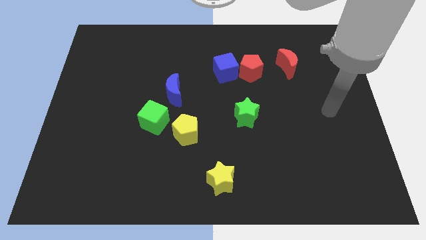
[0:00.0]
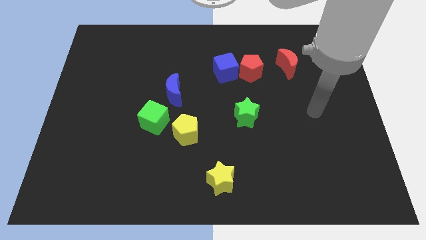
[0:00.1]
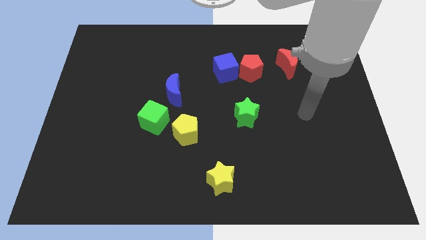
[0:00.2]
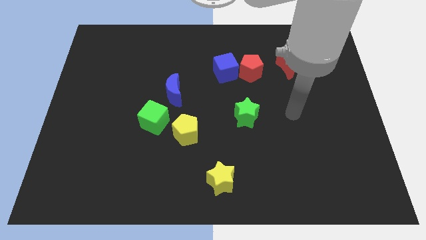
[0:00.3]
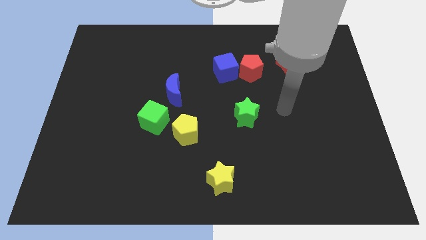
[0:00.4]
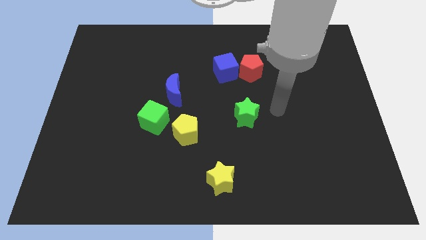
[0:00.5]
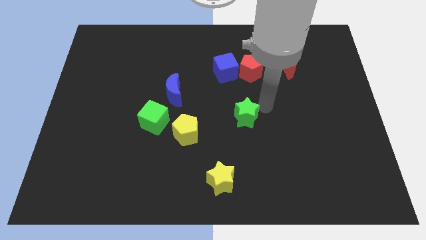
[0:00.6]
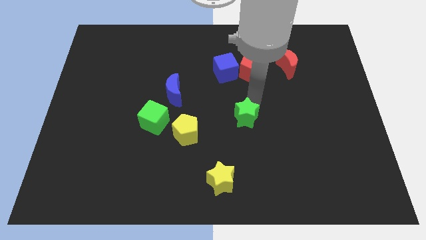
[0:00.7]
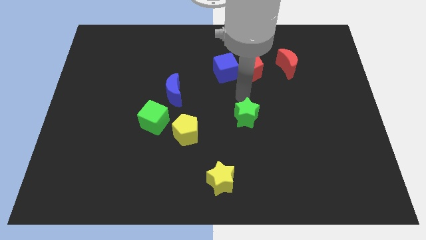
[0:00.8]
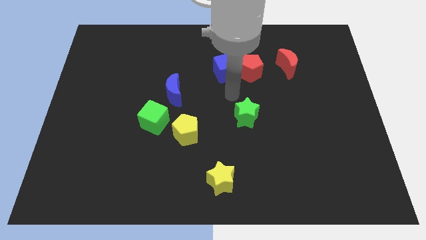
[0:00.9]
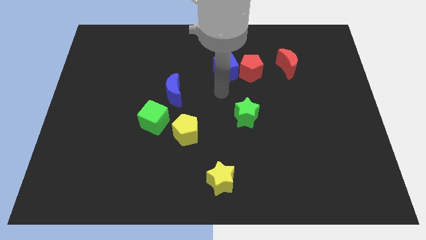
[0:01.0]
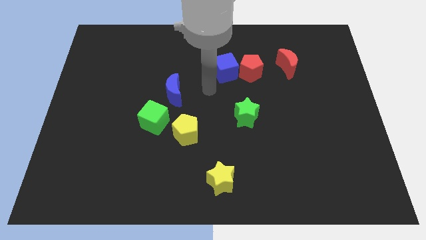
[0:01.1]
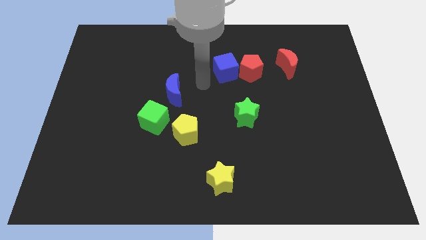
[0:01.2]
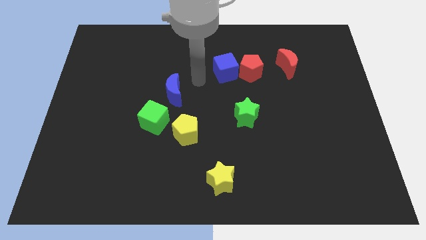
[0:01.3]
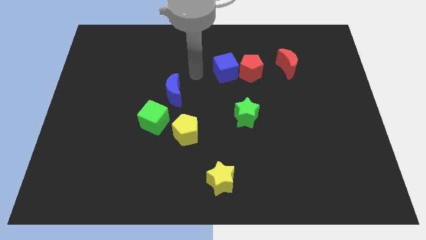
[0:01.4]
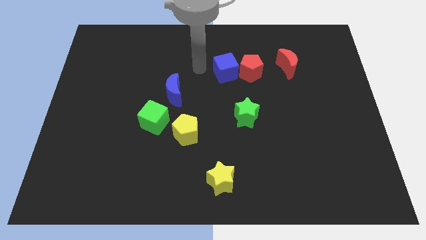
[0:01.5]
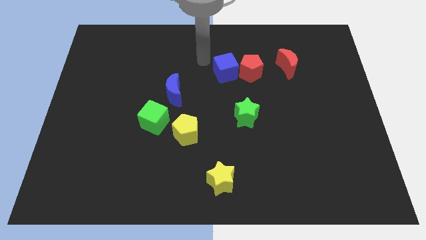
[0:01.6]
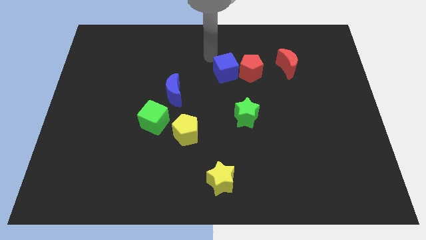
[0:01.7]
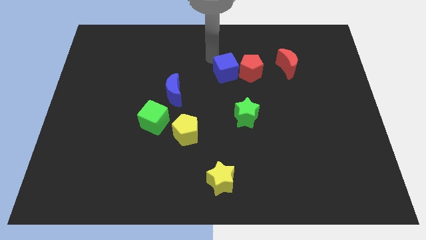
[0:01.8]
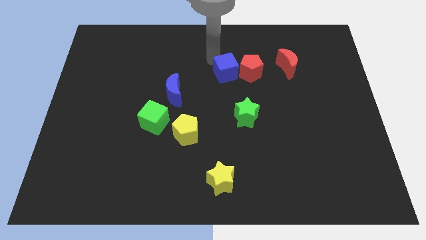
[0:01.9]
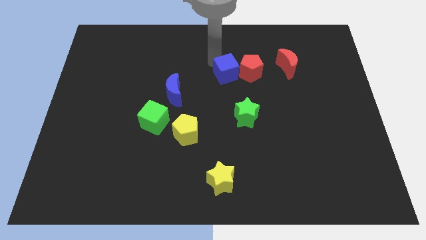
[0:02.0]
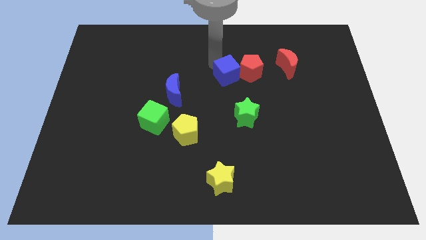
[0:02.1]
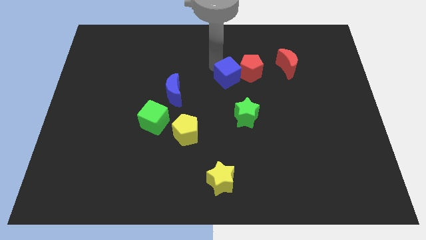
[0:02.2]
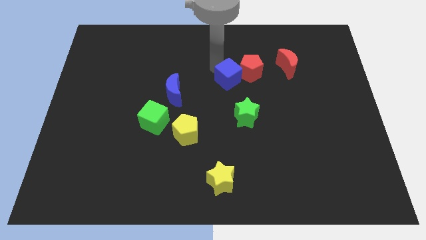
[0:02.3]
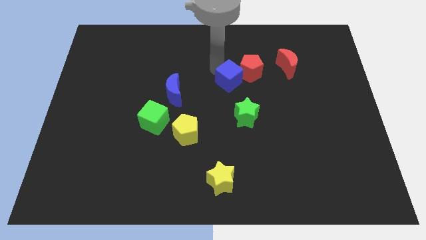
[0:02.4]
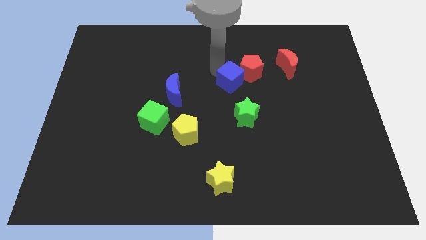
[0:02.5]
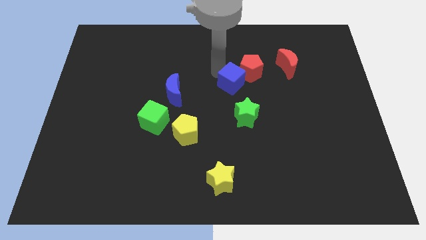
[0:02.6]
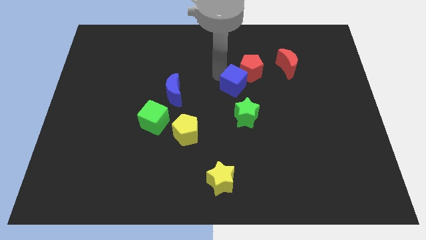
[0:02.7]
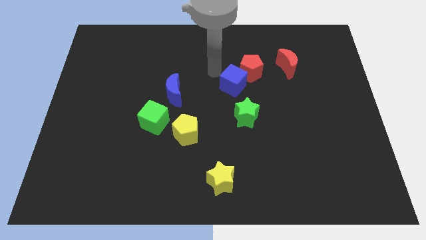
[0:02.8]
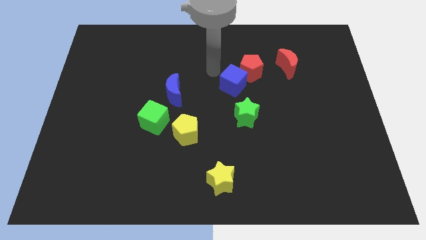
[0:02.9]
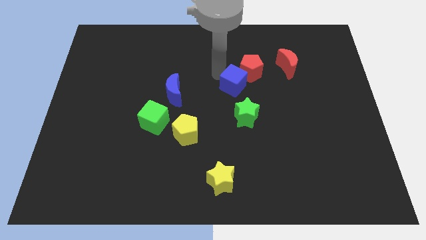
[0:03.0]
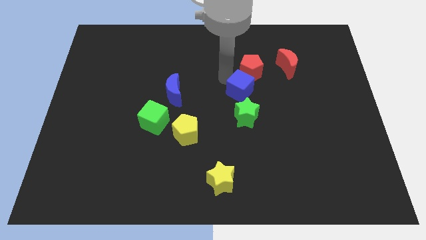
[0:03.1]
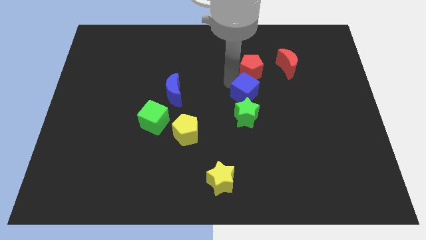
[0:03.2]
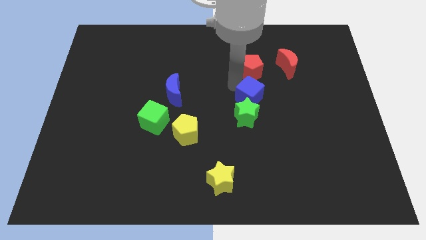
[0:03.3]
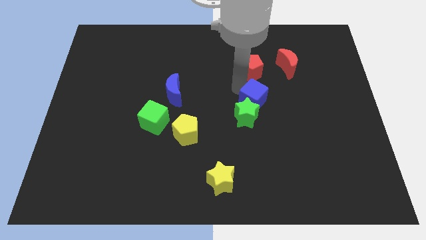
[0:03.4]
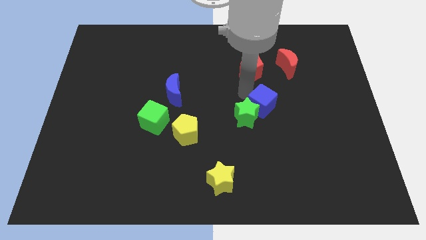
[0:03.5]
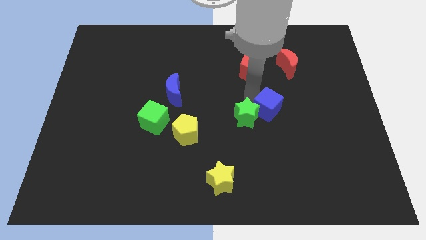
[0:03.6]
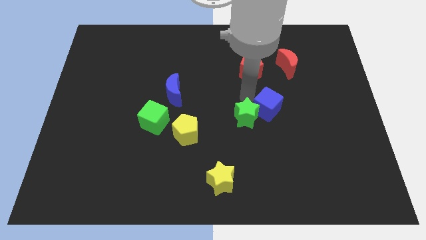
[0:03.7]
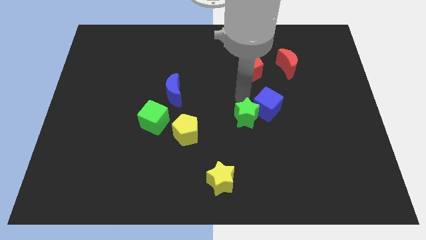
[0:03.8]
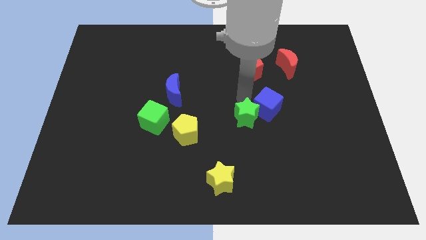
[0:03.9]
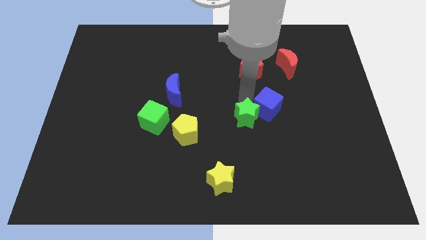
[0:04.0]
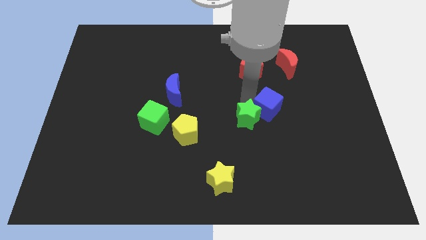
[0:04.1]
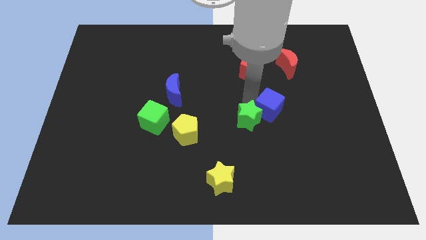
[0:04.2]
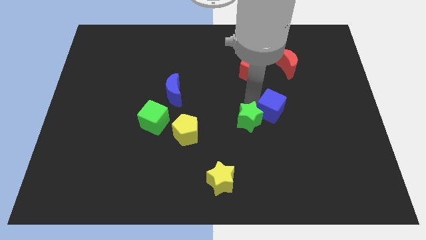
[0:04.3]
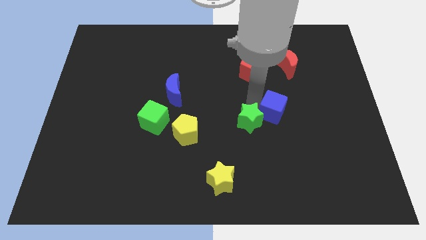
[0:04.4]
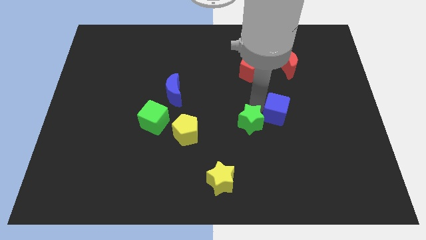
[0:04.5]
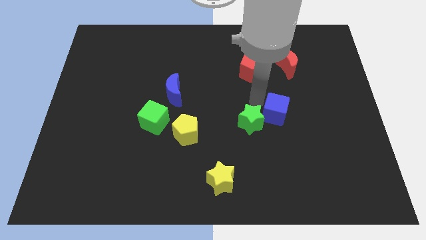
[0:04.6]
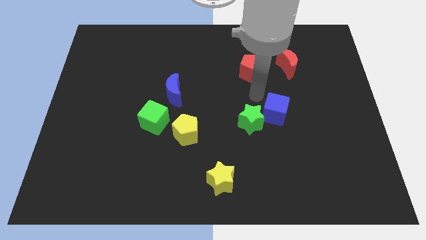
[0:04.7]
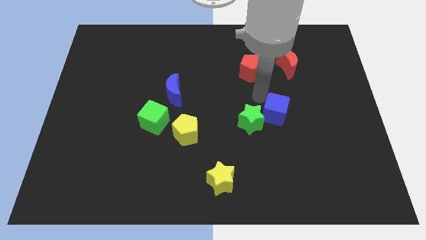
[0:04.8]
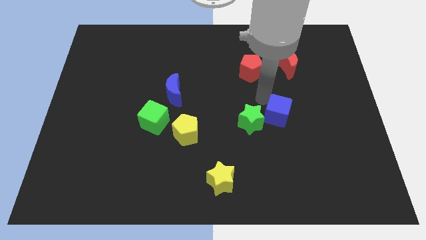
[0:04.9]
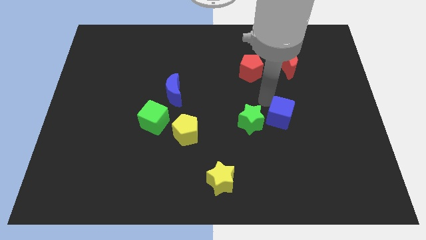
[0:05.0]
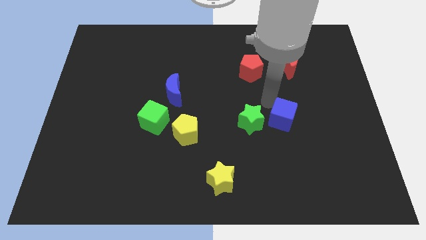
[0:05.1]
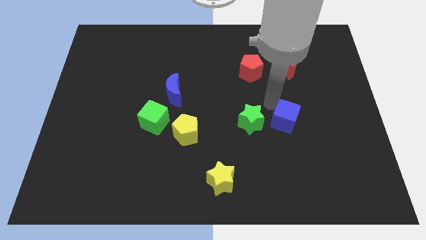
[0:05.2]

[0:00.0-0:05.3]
slide the blue cube downwards and to the right

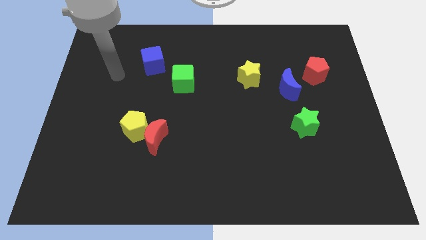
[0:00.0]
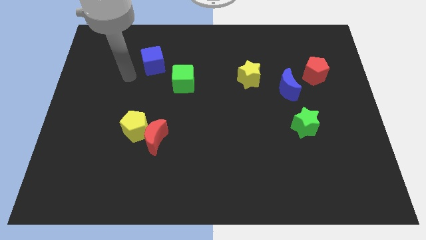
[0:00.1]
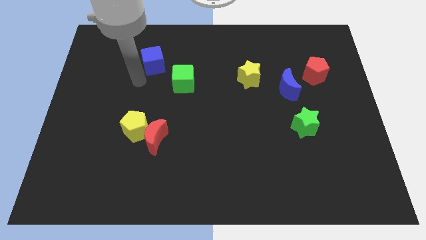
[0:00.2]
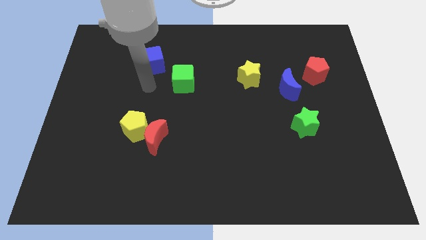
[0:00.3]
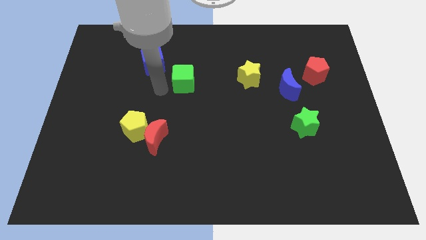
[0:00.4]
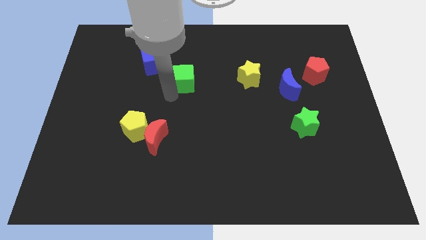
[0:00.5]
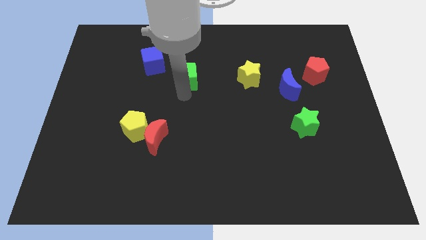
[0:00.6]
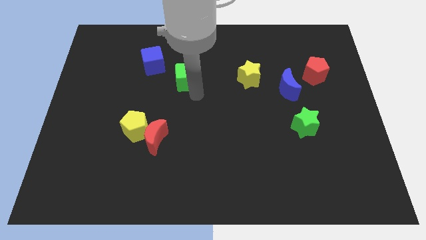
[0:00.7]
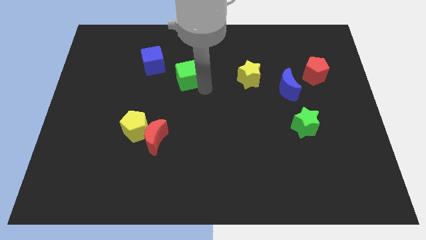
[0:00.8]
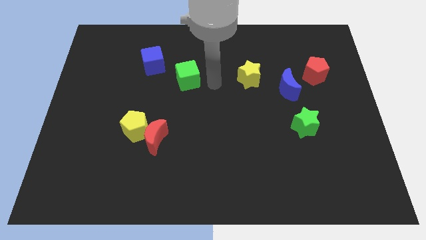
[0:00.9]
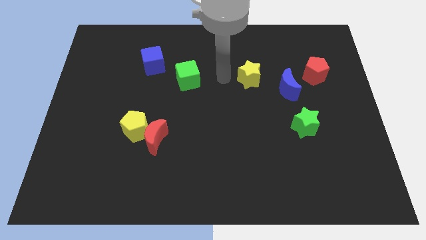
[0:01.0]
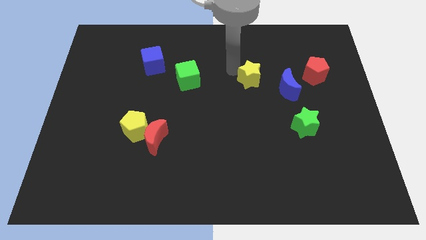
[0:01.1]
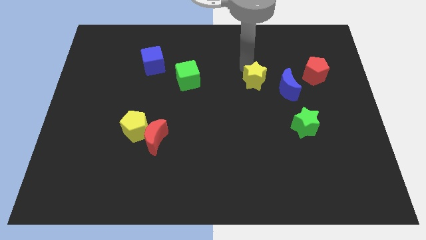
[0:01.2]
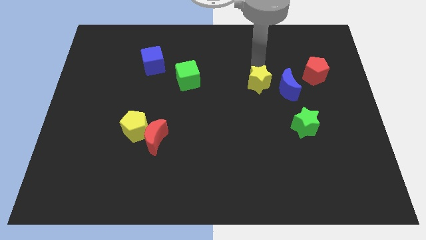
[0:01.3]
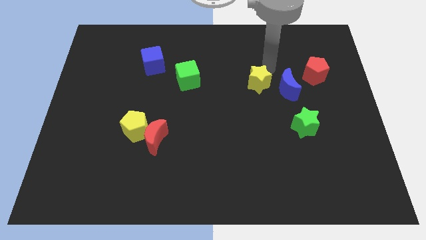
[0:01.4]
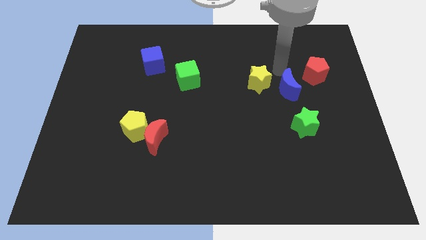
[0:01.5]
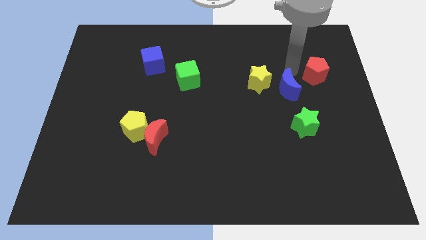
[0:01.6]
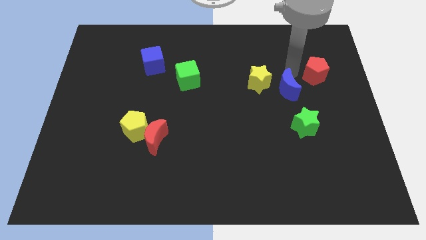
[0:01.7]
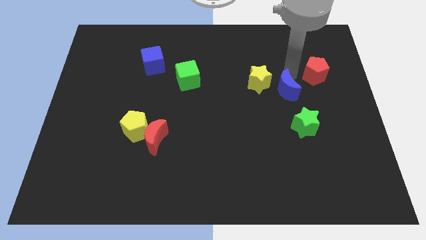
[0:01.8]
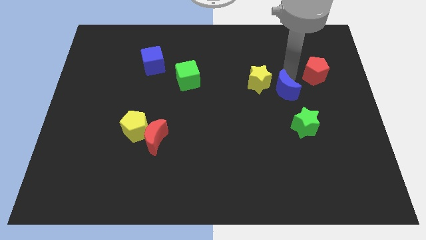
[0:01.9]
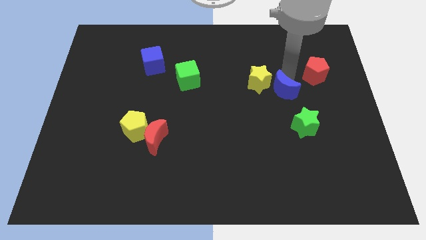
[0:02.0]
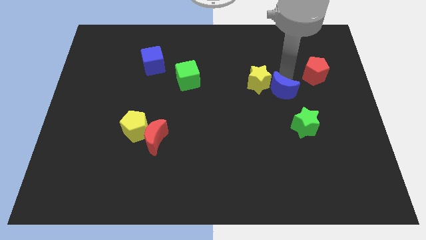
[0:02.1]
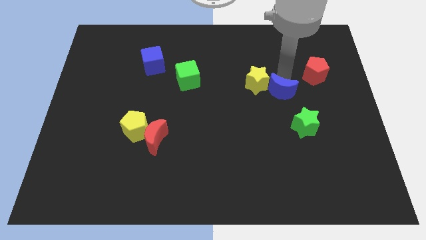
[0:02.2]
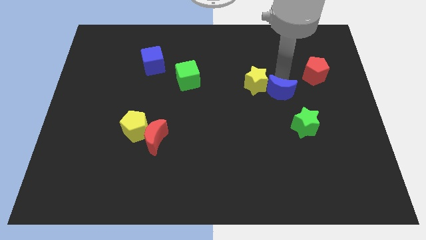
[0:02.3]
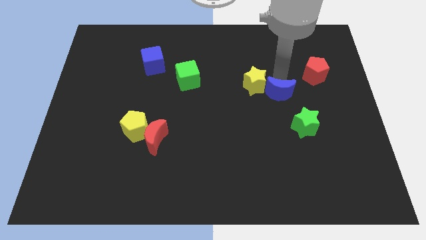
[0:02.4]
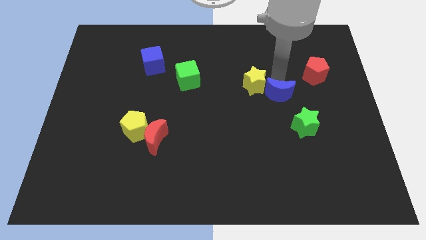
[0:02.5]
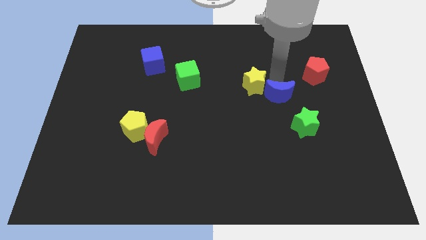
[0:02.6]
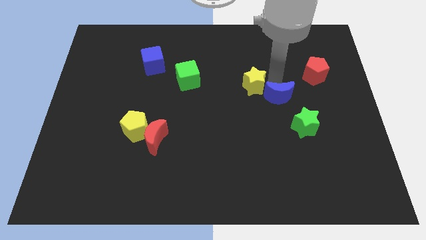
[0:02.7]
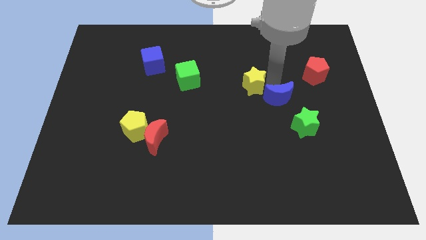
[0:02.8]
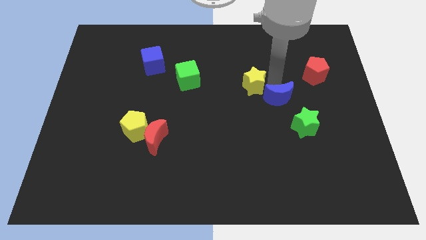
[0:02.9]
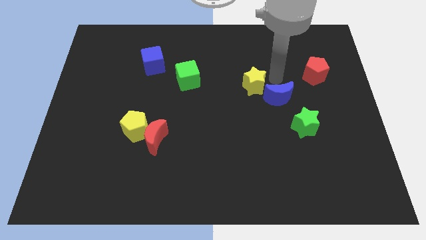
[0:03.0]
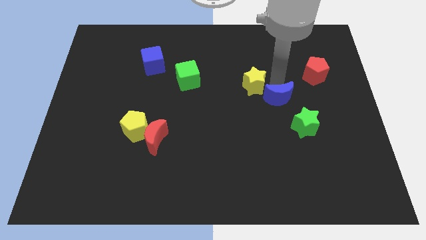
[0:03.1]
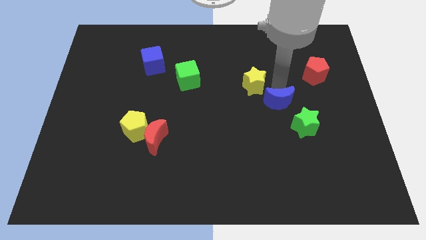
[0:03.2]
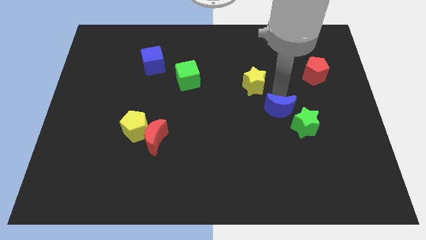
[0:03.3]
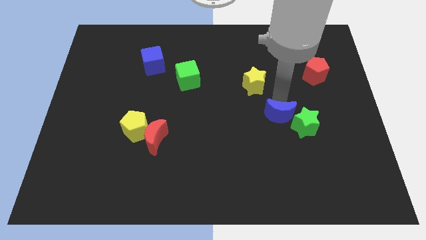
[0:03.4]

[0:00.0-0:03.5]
move the blue moon a little bit down
